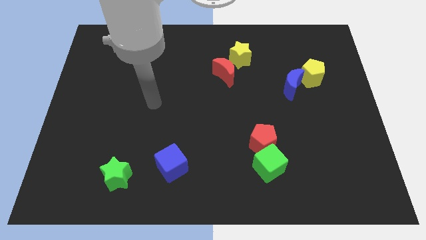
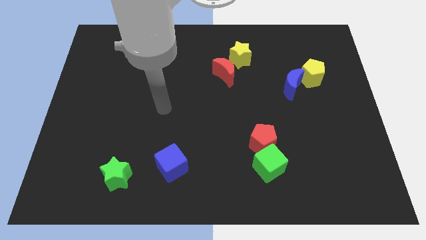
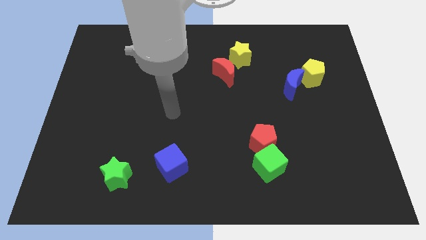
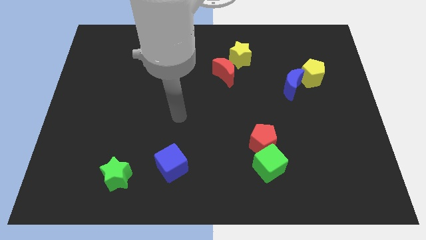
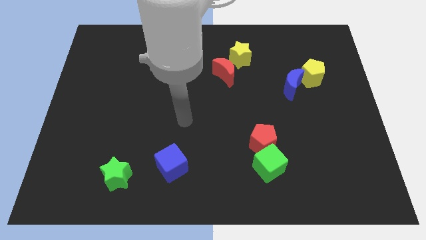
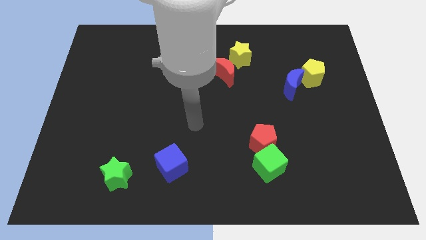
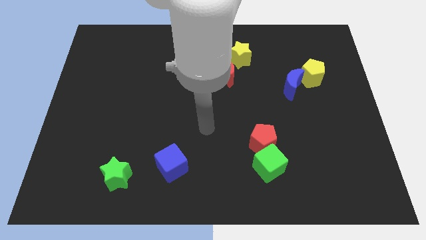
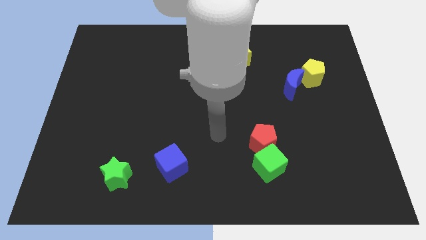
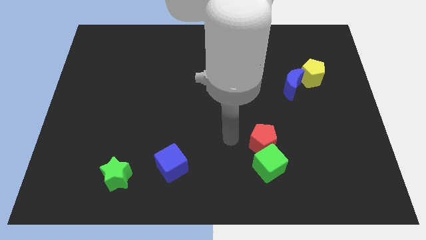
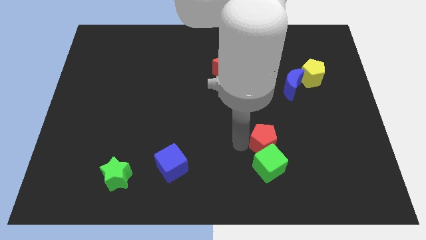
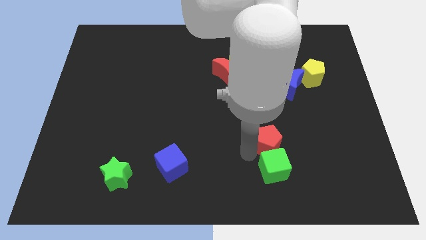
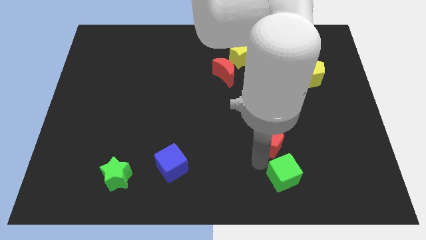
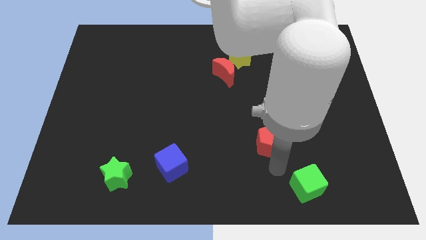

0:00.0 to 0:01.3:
move the red pentagon away from the green cube

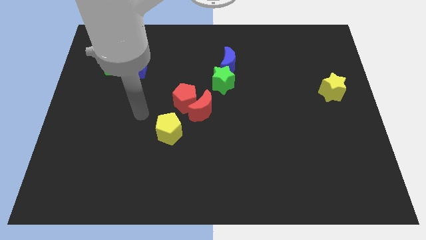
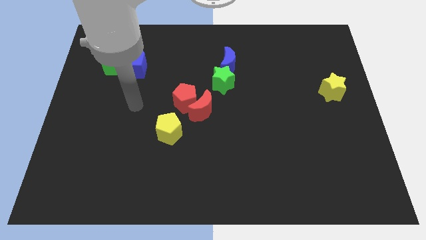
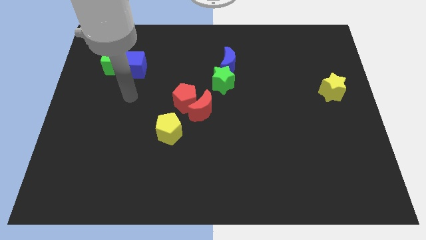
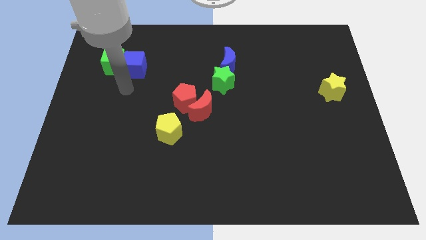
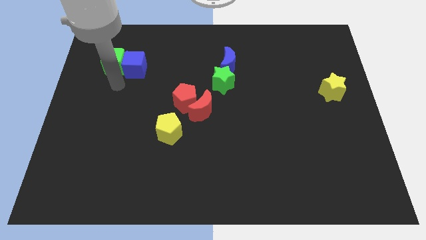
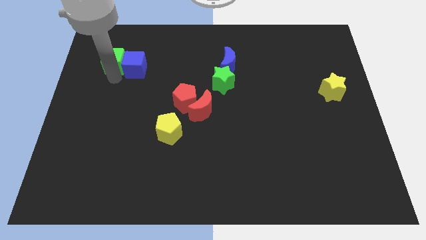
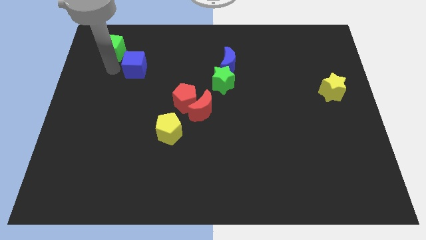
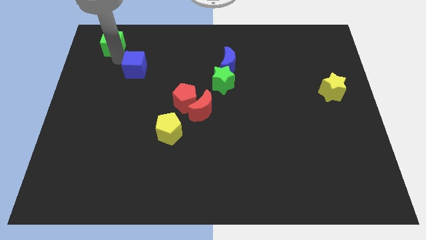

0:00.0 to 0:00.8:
pull the blue cube apart from the green cube

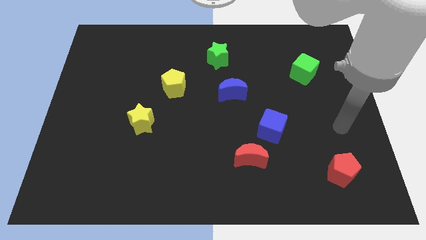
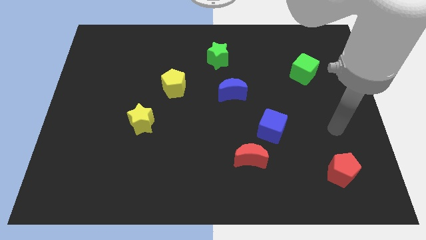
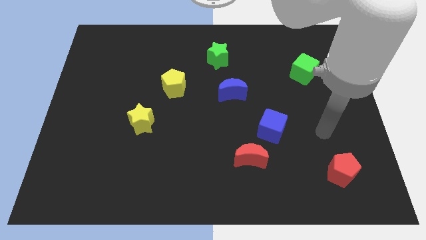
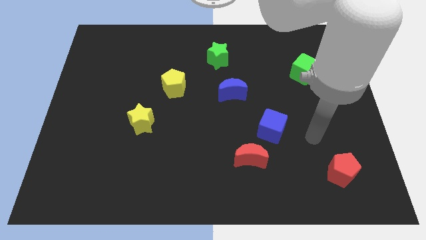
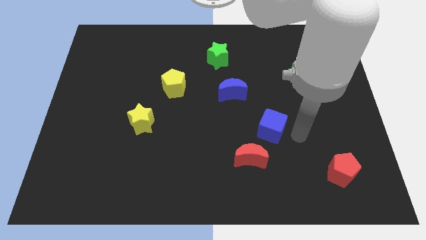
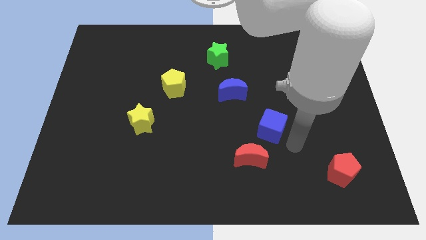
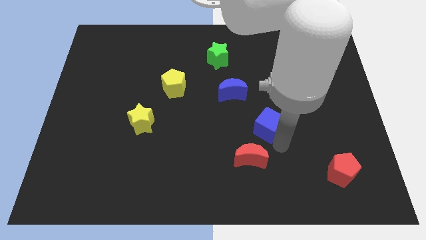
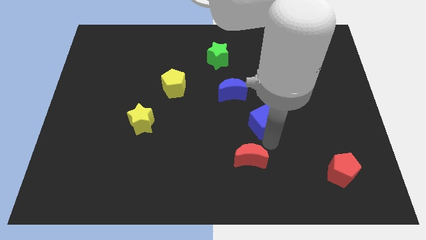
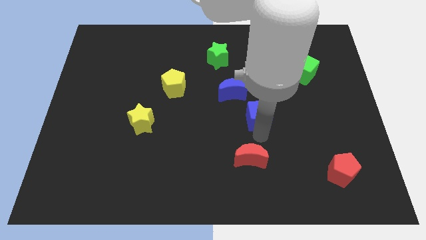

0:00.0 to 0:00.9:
move the red moon away from the blue cube

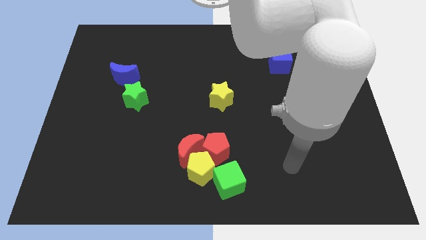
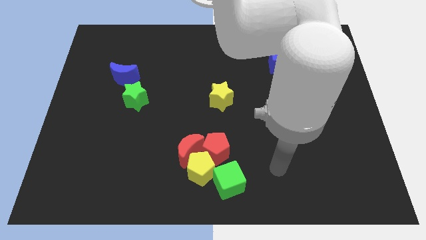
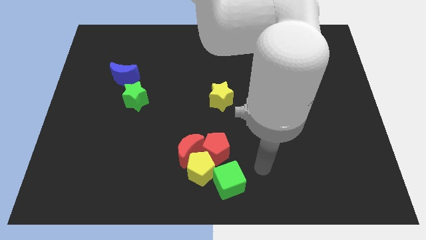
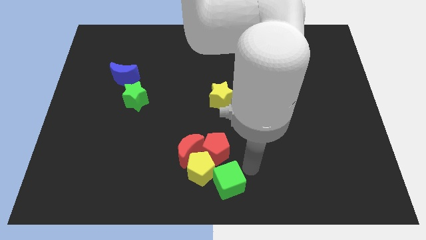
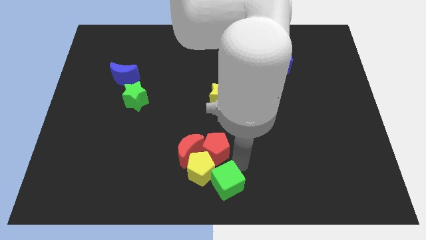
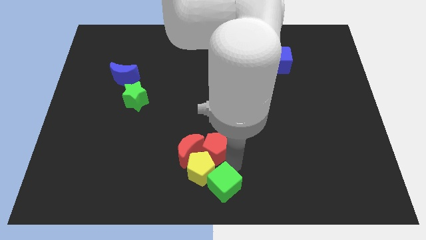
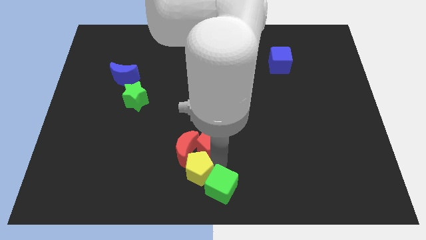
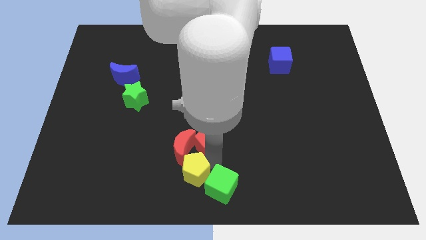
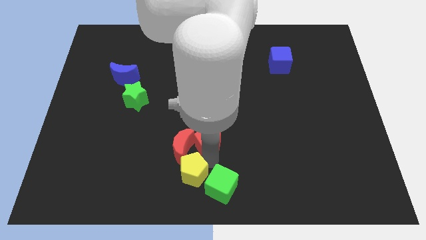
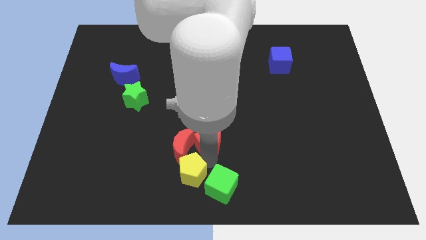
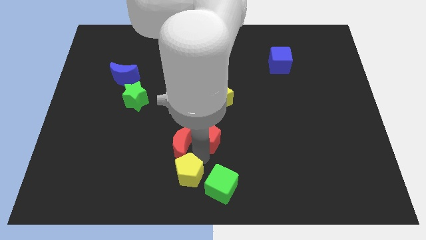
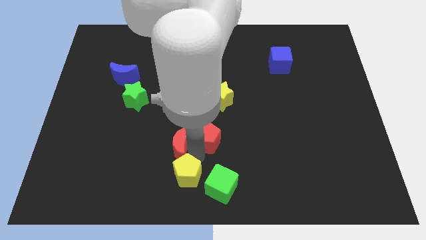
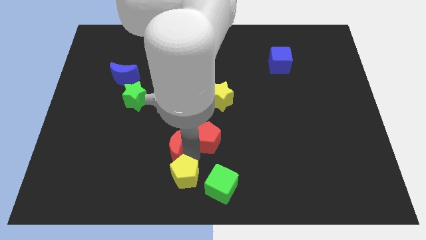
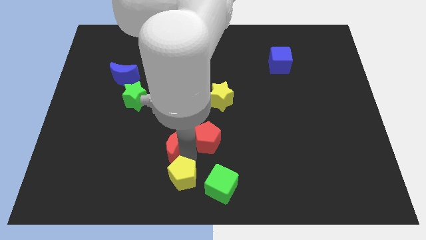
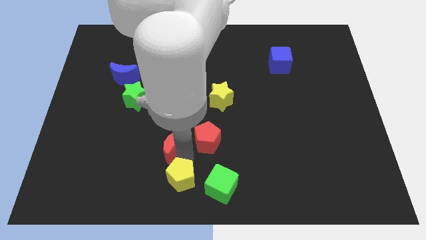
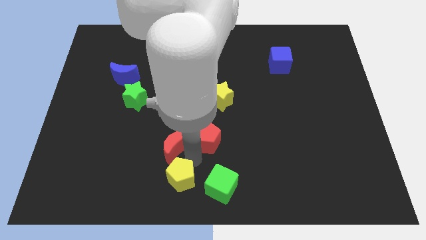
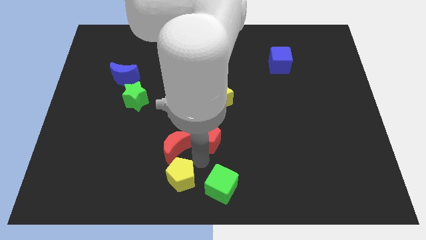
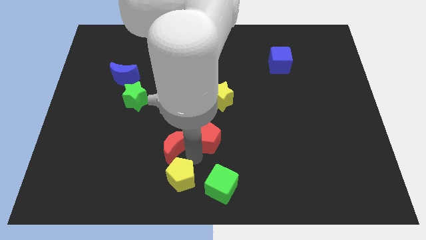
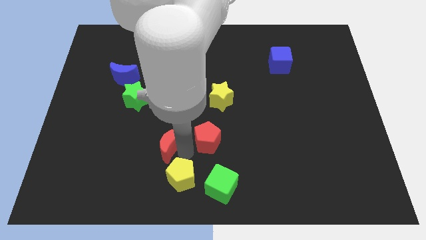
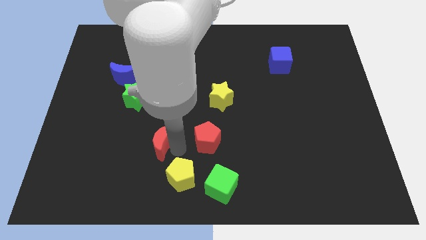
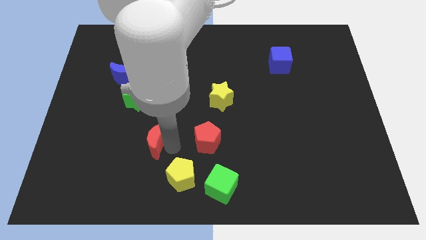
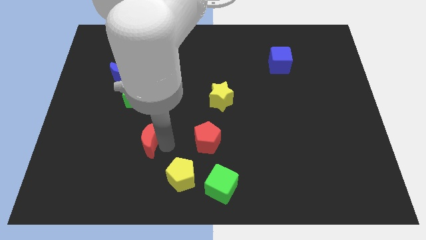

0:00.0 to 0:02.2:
separate the red moon from the yellow pentagon and red pentagon

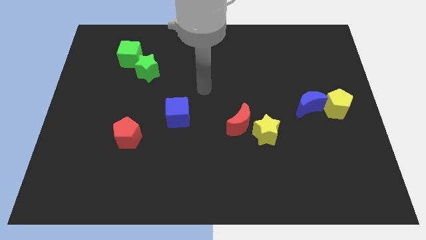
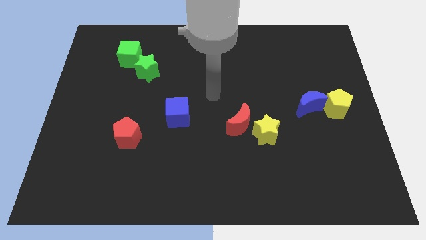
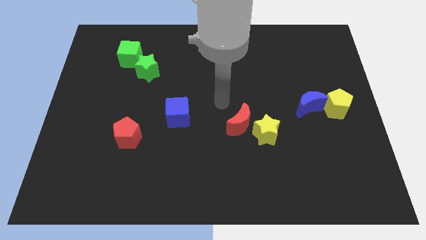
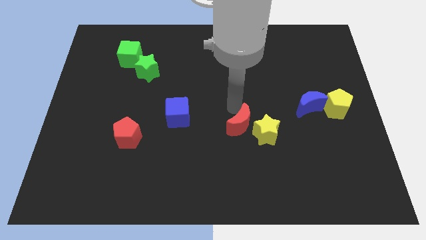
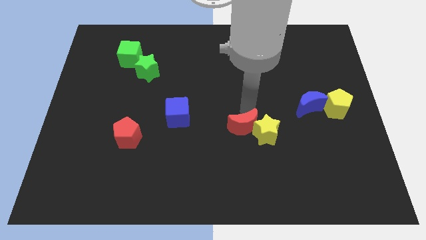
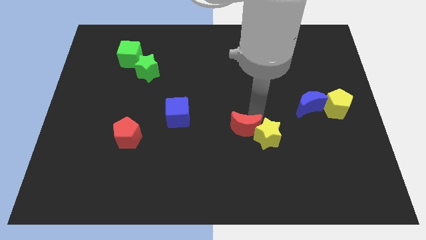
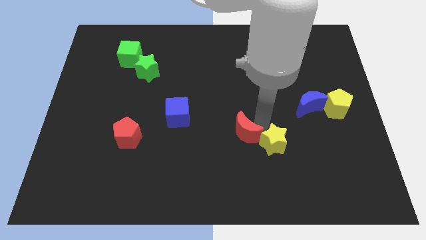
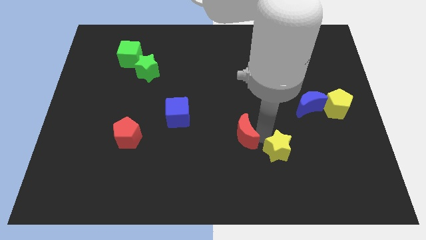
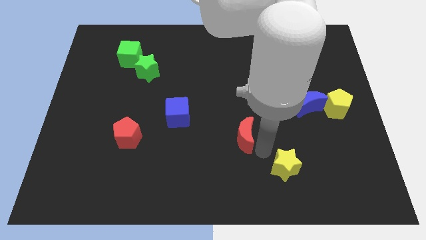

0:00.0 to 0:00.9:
move the red moon away from the yellow star

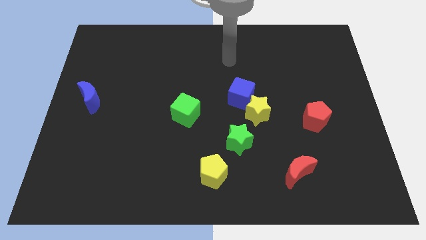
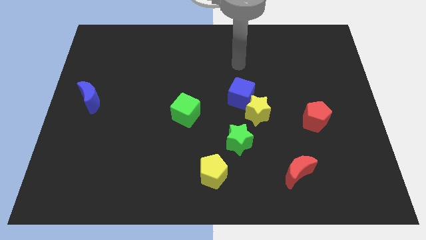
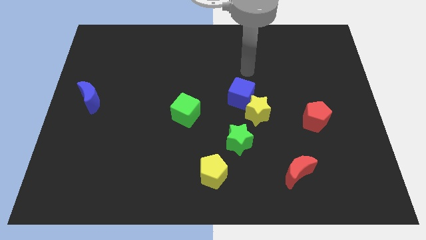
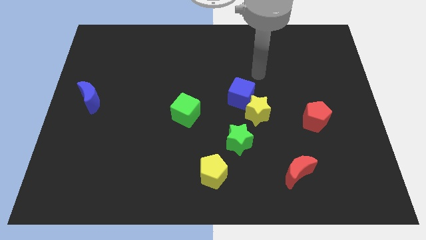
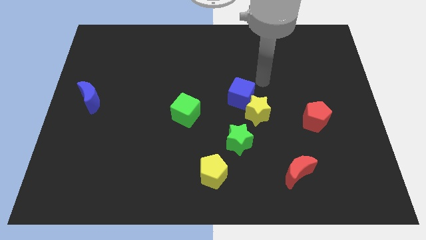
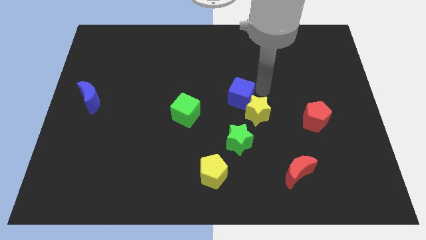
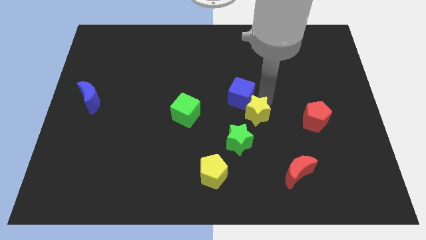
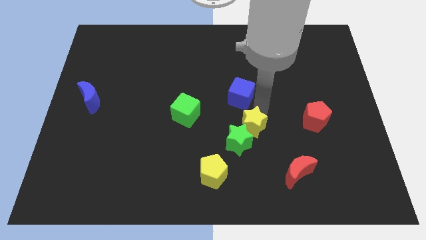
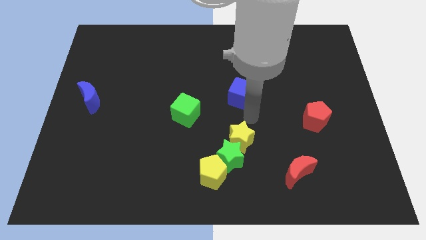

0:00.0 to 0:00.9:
move the blue cube away from the yellow star

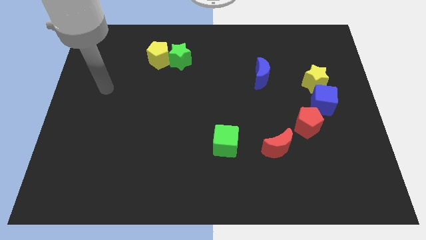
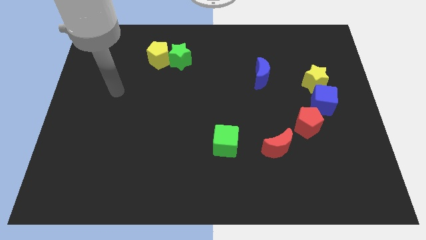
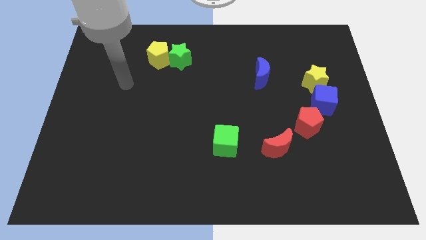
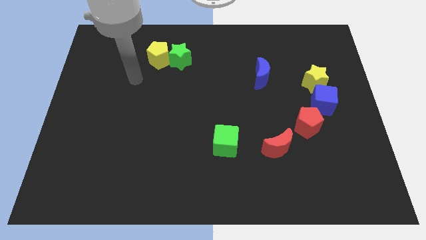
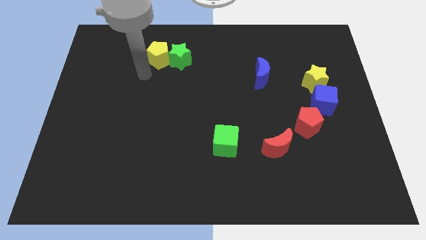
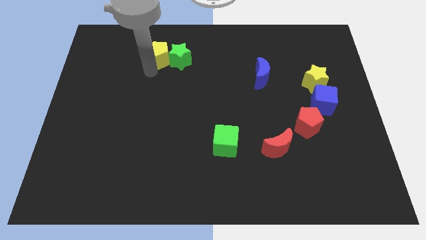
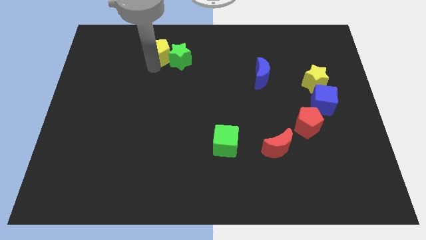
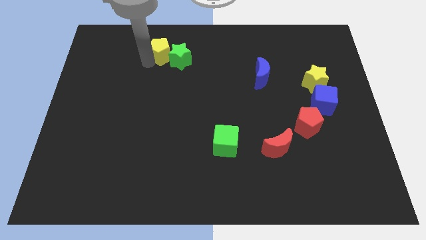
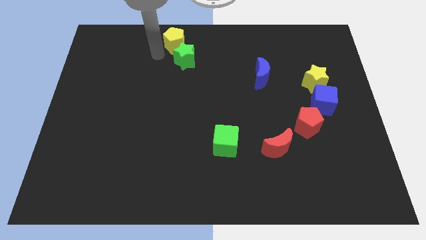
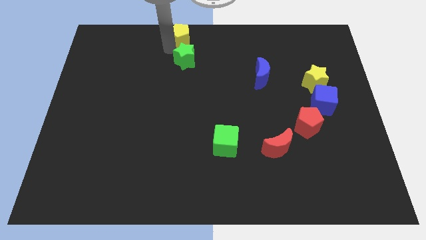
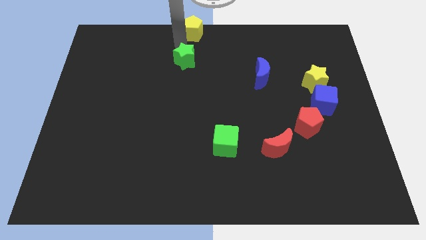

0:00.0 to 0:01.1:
pull the green star apart from the yellow pentagon

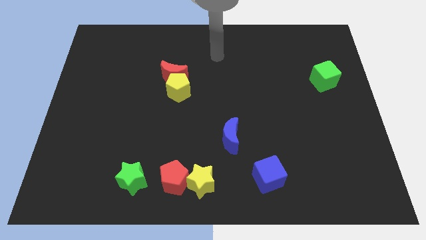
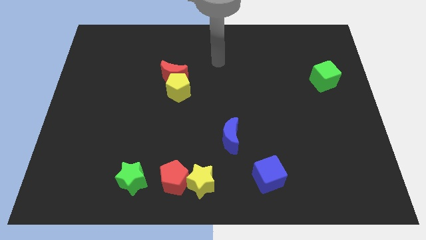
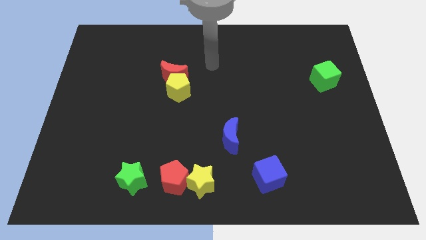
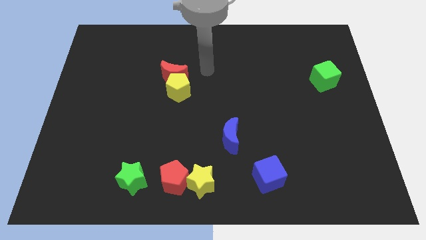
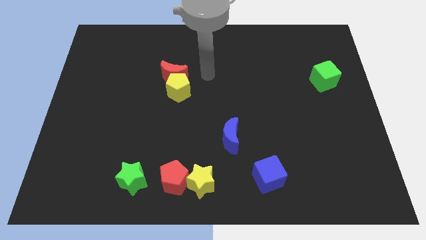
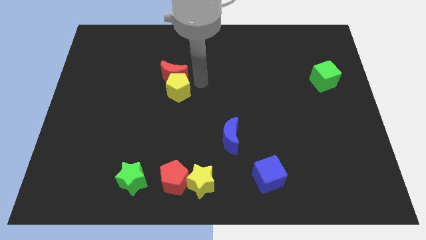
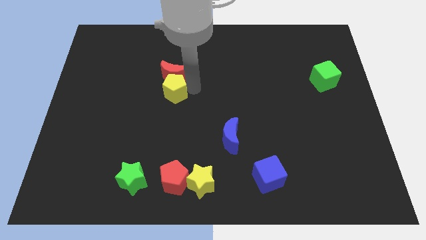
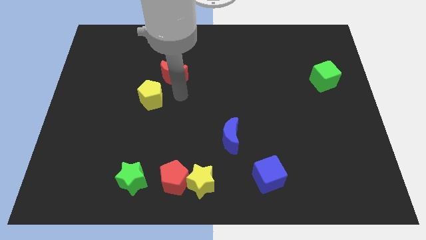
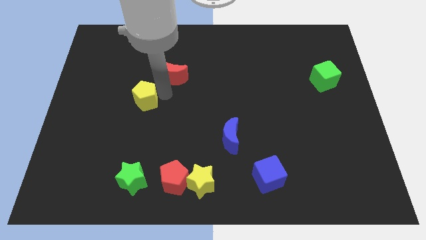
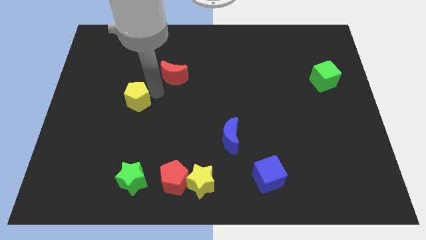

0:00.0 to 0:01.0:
move the red moon away from the yellow pentagon
